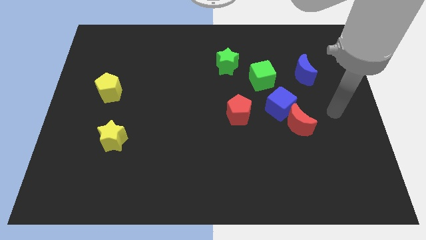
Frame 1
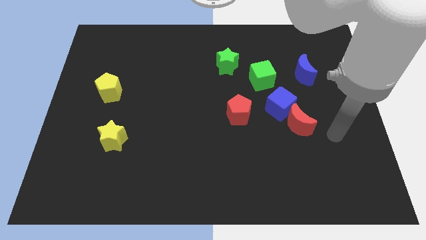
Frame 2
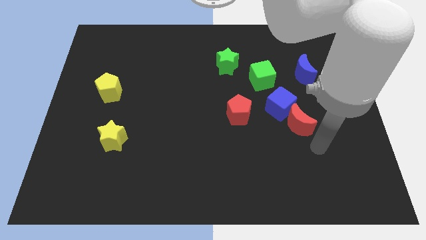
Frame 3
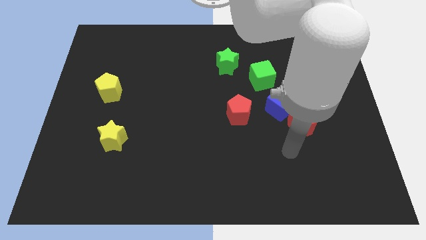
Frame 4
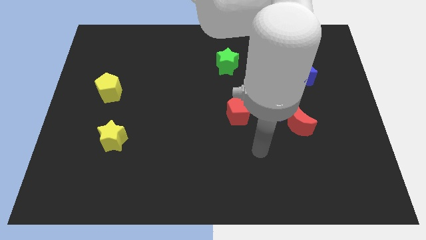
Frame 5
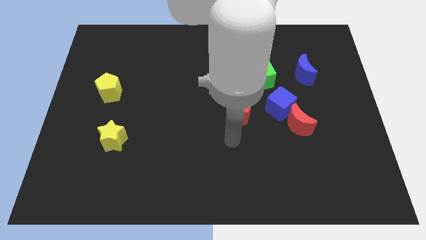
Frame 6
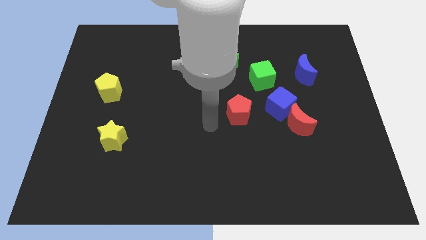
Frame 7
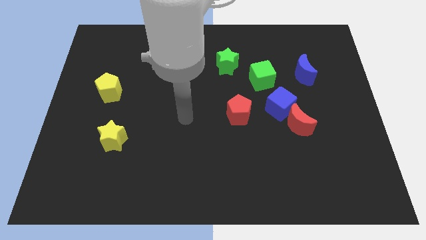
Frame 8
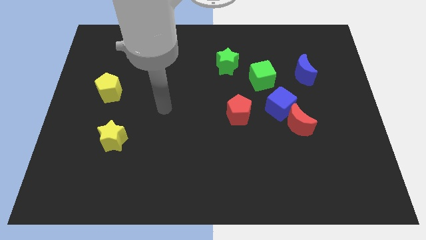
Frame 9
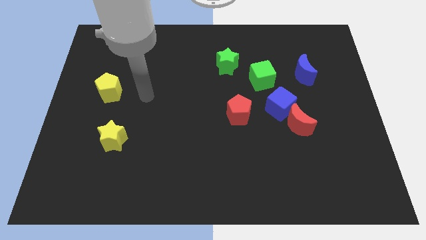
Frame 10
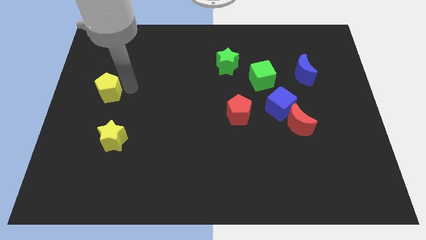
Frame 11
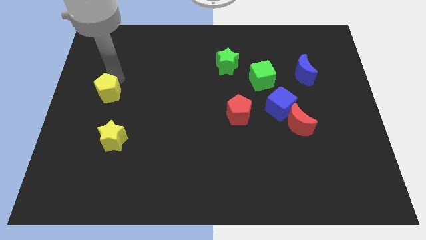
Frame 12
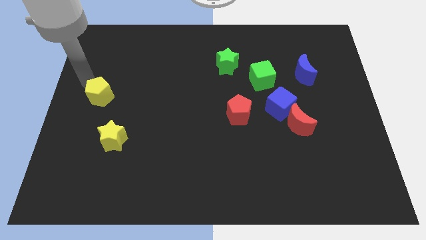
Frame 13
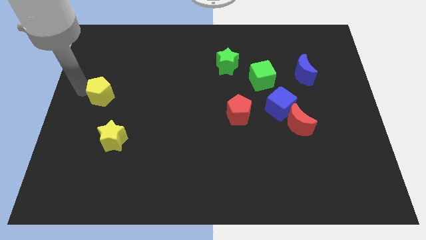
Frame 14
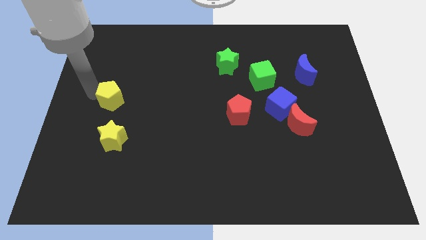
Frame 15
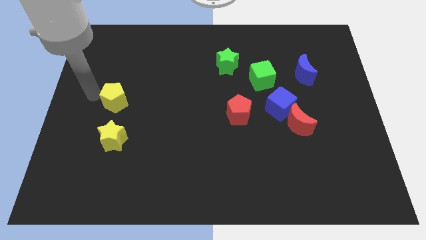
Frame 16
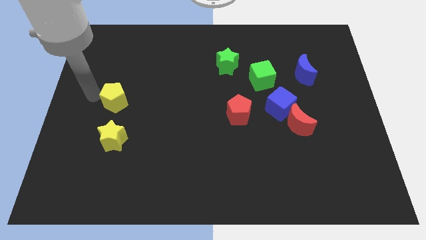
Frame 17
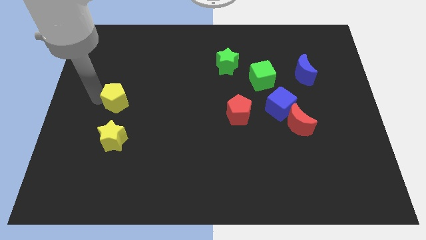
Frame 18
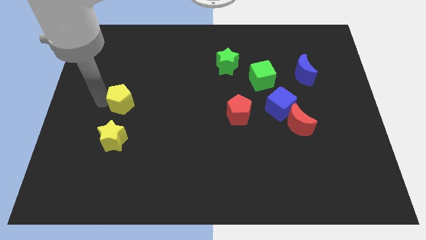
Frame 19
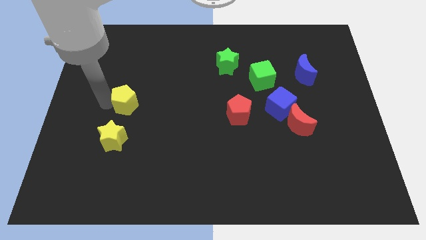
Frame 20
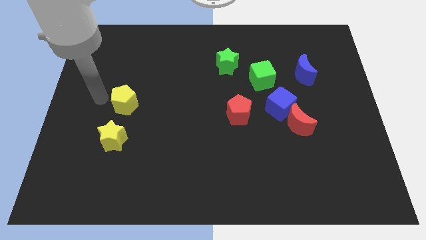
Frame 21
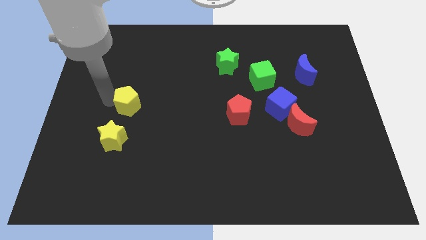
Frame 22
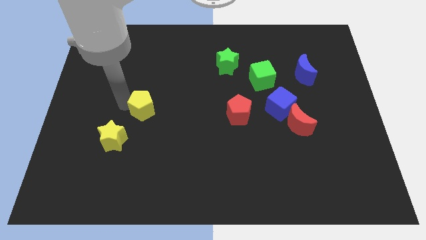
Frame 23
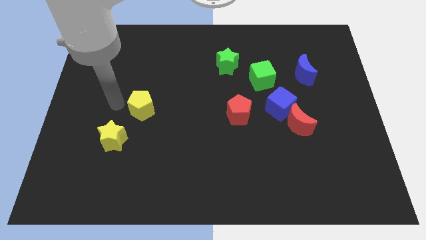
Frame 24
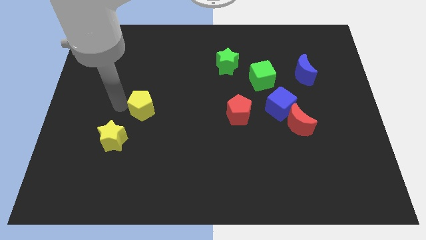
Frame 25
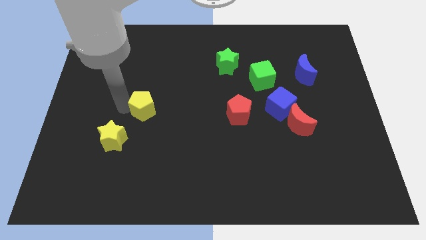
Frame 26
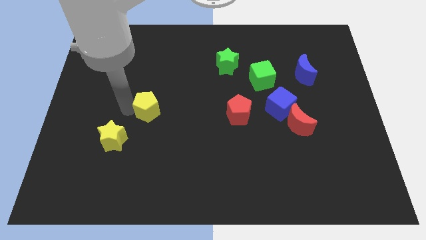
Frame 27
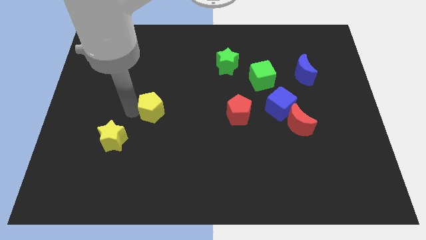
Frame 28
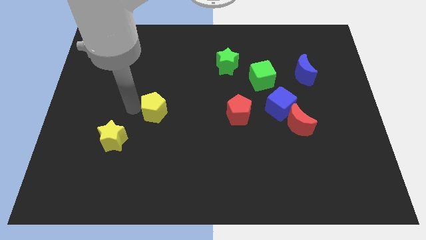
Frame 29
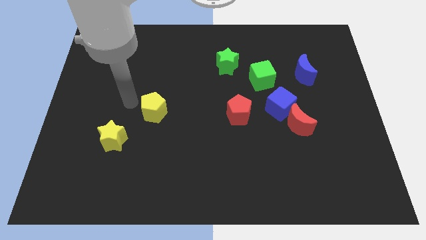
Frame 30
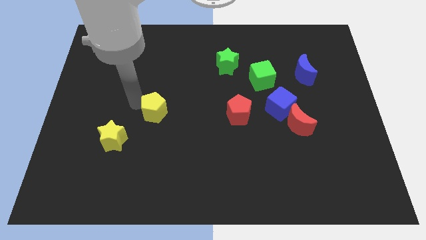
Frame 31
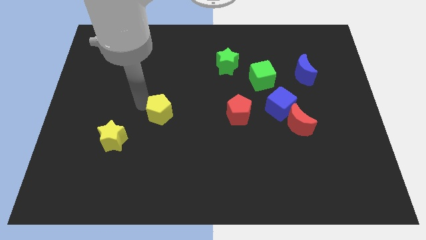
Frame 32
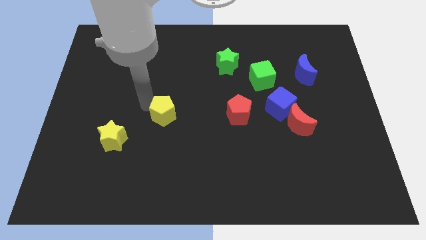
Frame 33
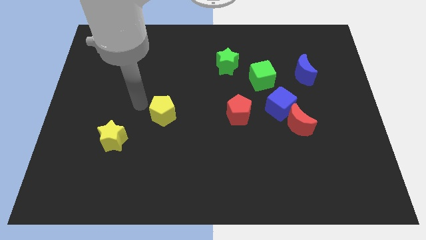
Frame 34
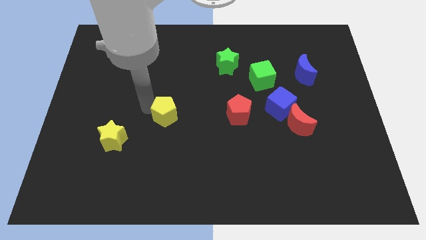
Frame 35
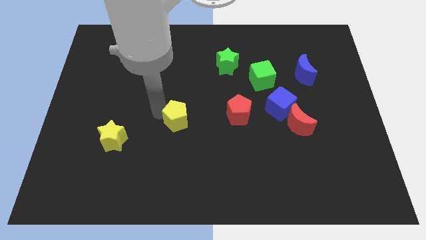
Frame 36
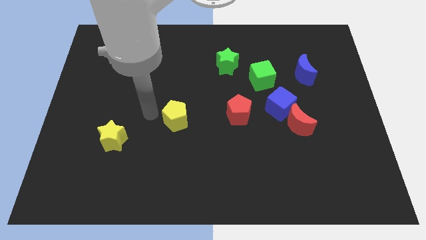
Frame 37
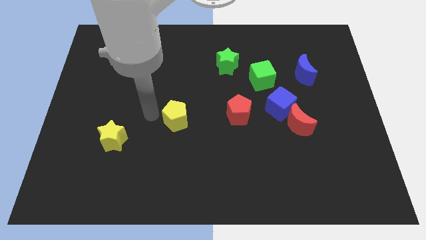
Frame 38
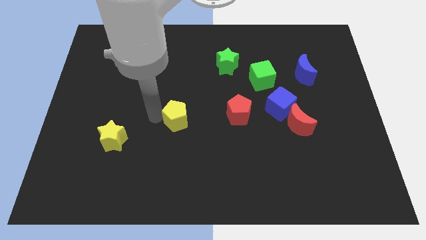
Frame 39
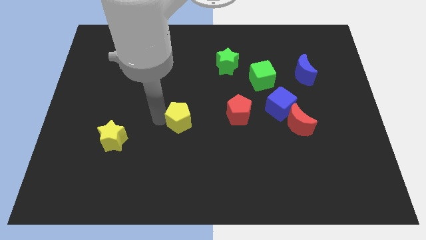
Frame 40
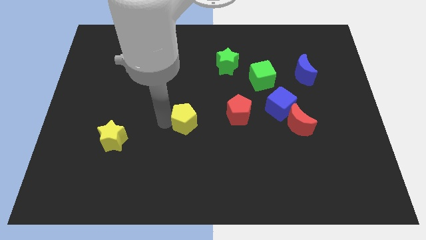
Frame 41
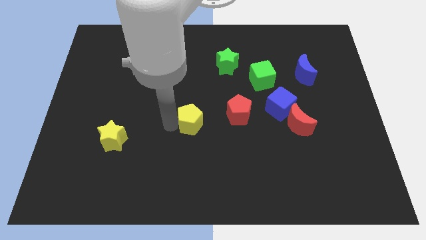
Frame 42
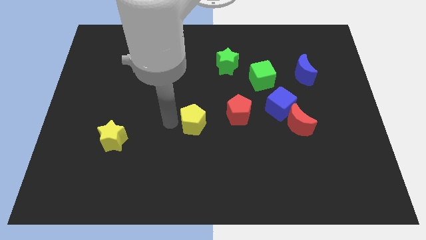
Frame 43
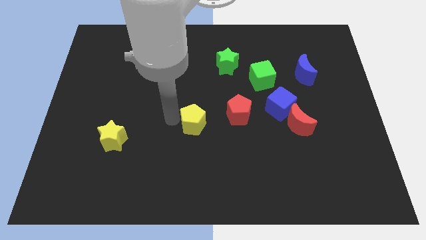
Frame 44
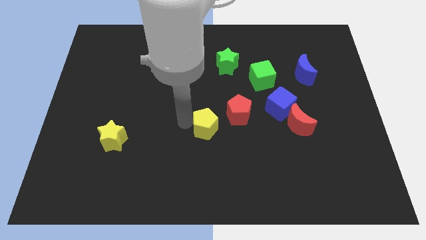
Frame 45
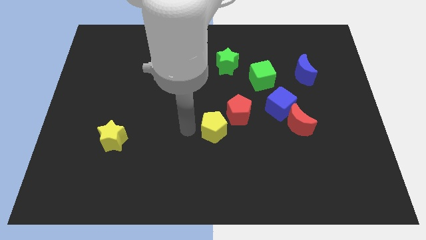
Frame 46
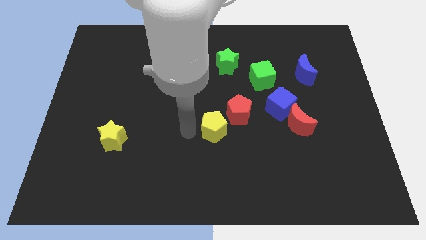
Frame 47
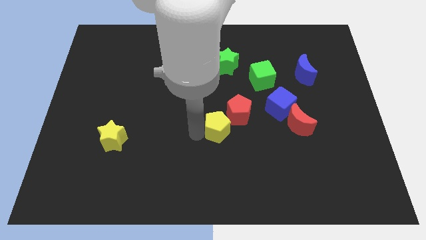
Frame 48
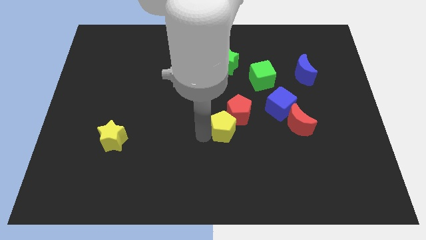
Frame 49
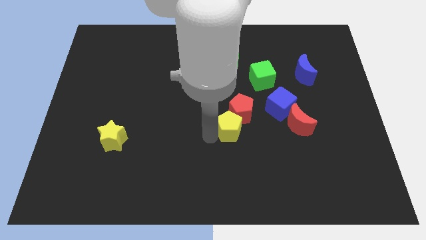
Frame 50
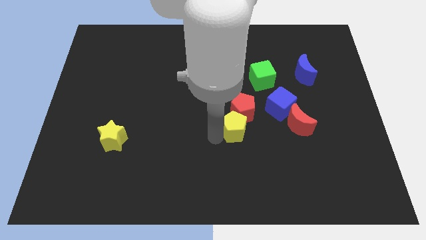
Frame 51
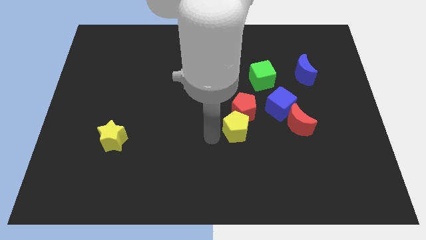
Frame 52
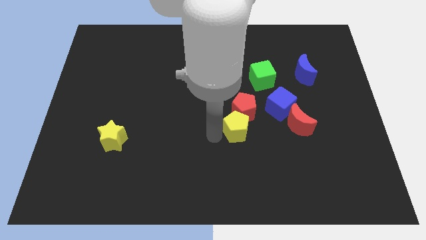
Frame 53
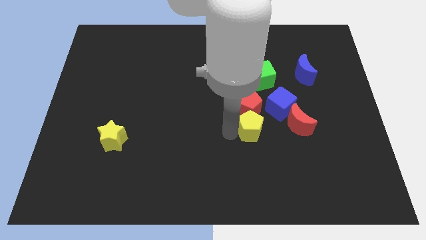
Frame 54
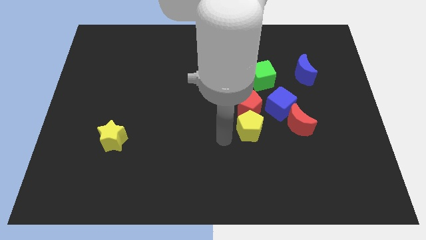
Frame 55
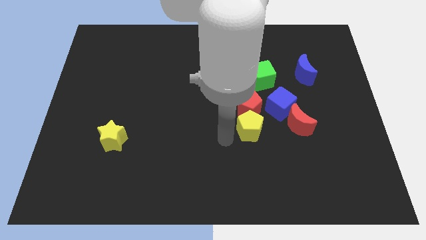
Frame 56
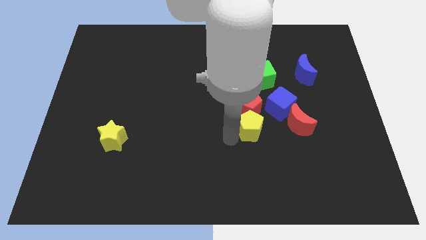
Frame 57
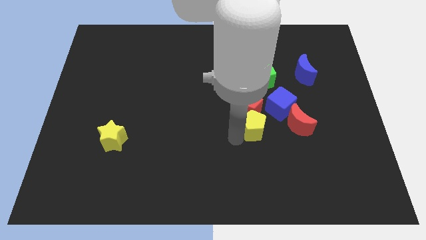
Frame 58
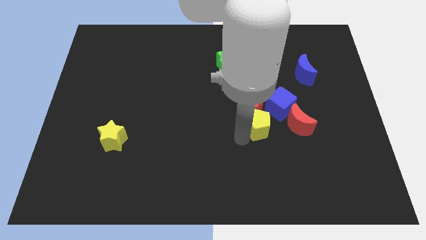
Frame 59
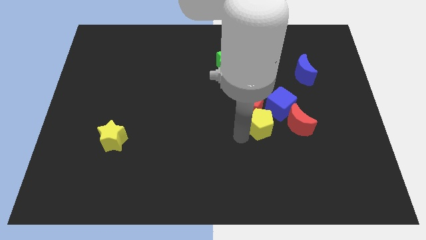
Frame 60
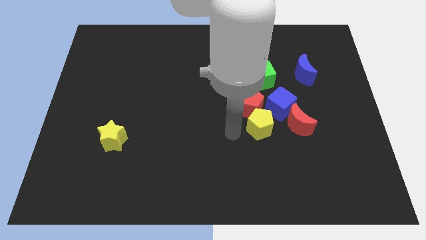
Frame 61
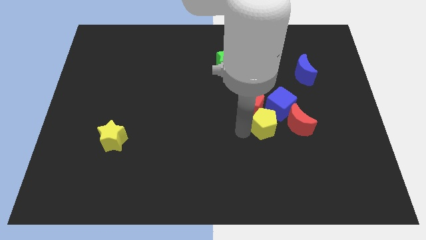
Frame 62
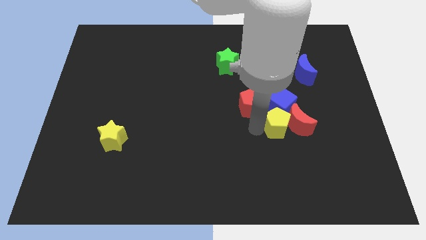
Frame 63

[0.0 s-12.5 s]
slide the yellow pentagon close to the red moon

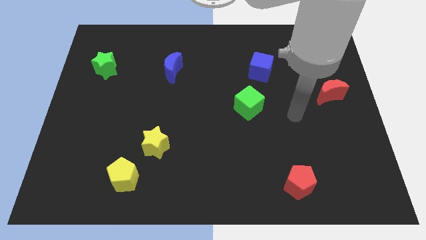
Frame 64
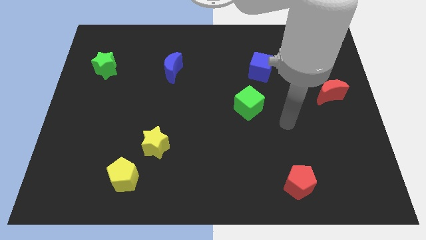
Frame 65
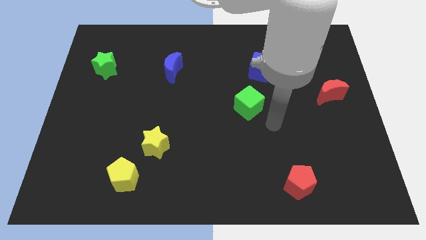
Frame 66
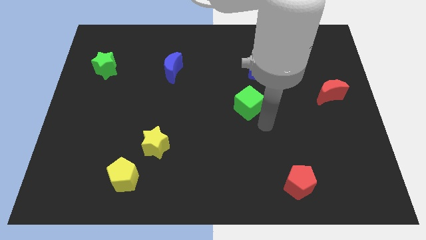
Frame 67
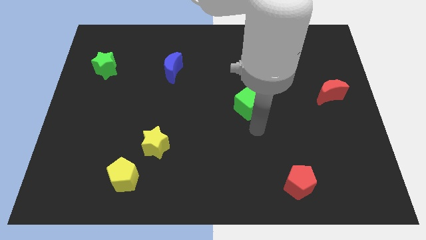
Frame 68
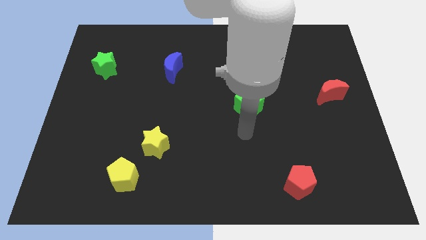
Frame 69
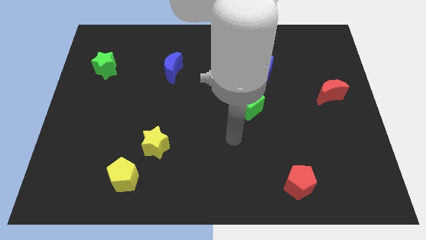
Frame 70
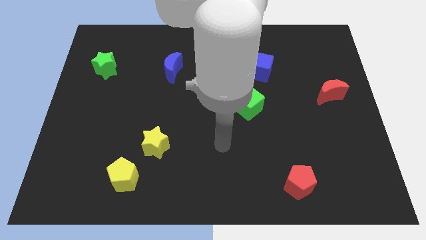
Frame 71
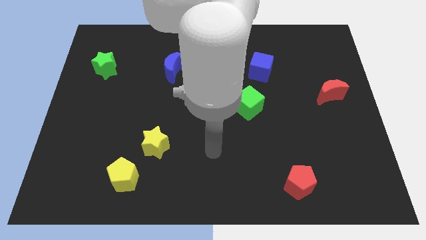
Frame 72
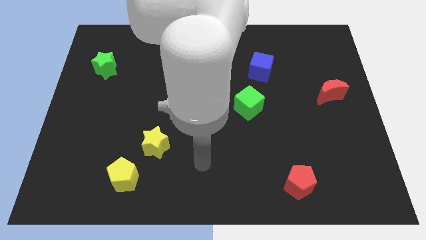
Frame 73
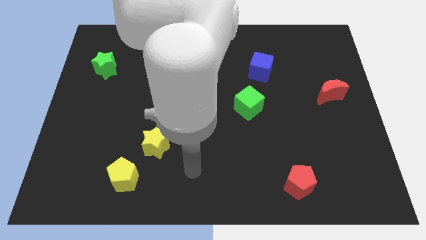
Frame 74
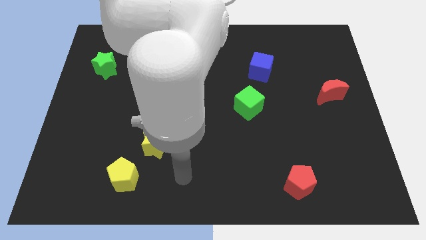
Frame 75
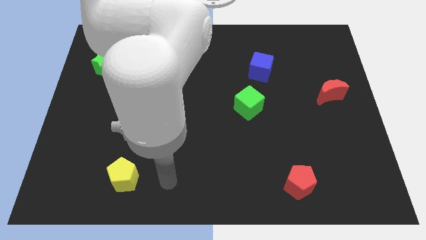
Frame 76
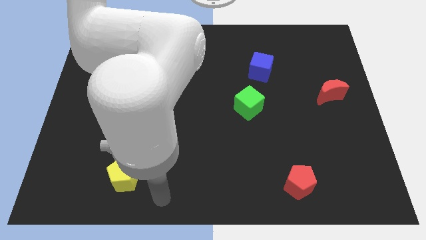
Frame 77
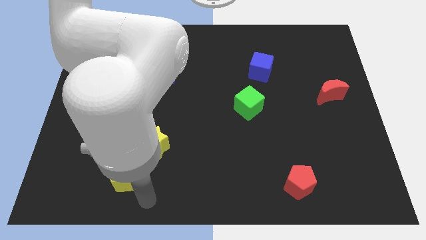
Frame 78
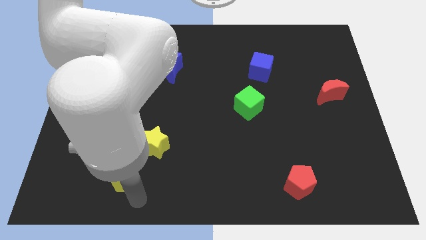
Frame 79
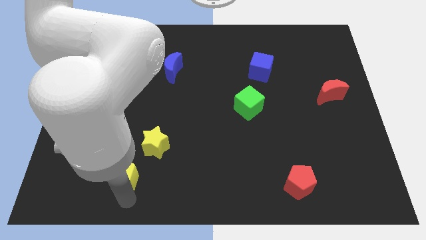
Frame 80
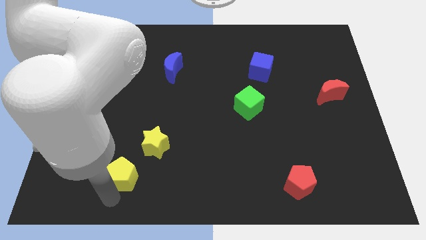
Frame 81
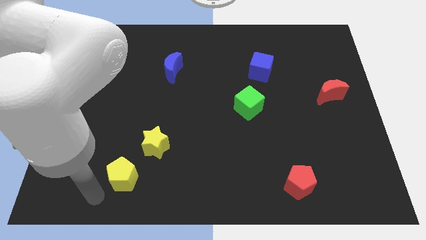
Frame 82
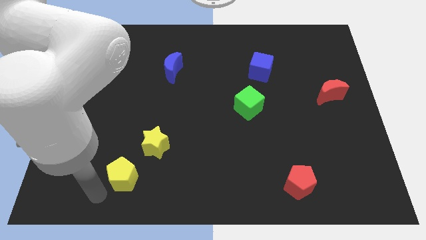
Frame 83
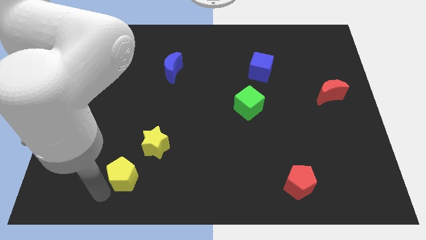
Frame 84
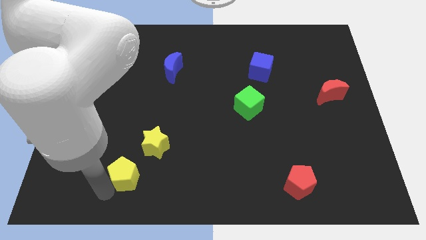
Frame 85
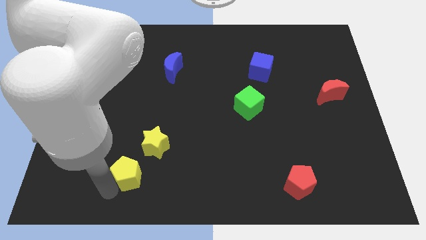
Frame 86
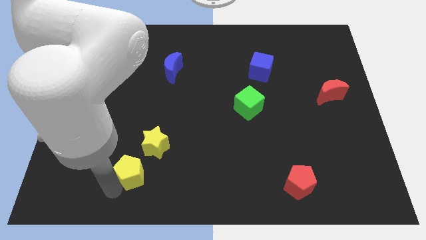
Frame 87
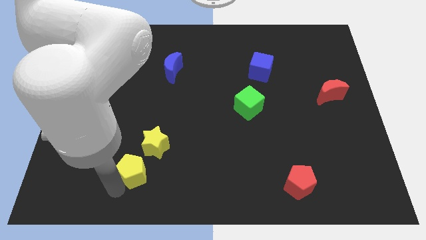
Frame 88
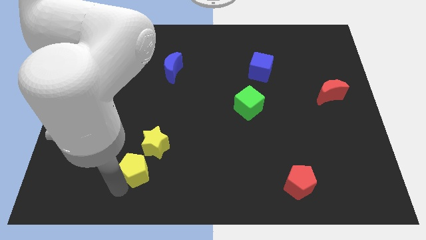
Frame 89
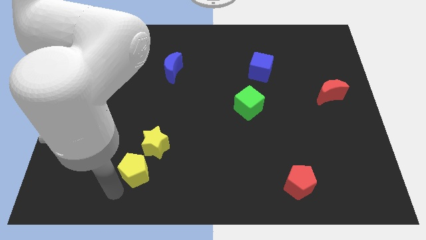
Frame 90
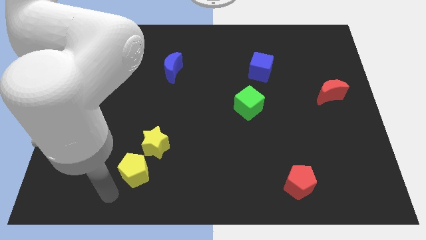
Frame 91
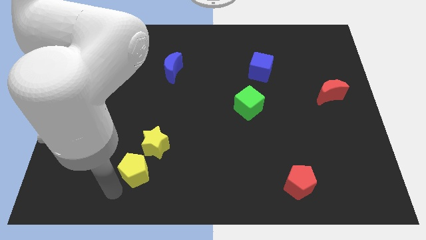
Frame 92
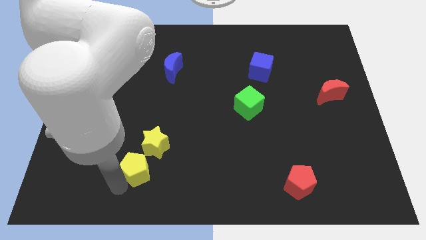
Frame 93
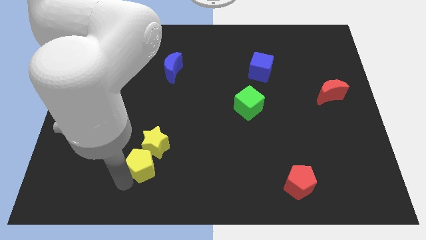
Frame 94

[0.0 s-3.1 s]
slide the yellow pentagon to the yellow star
